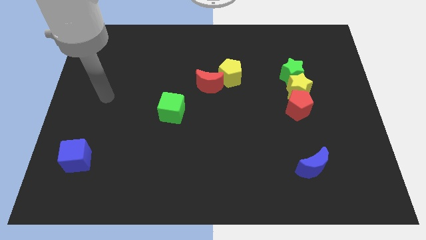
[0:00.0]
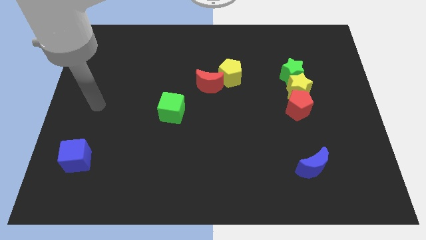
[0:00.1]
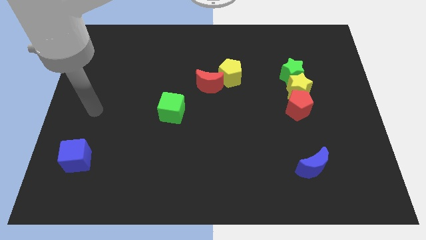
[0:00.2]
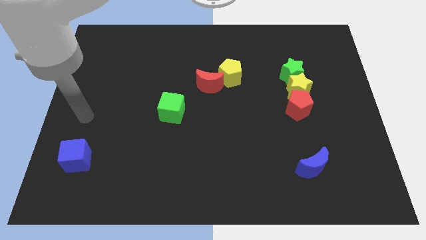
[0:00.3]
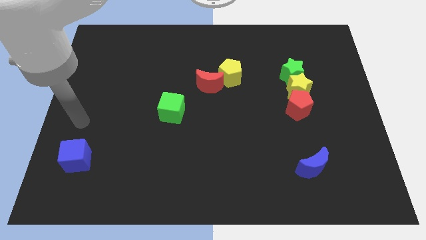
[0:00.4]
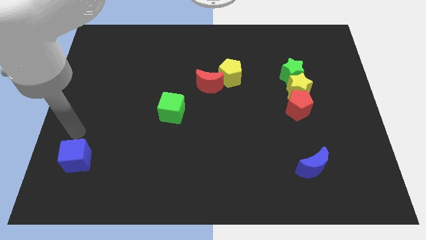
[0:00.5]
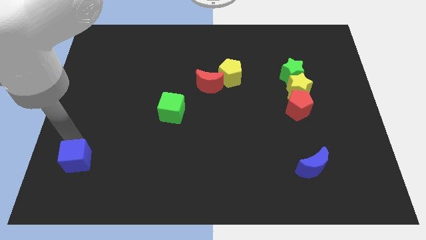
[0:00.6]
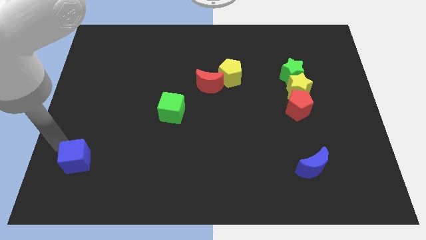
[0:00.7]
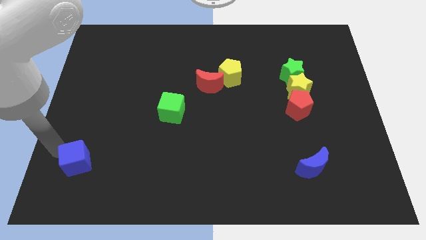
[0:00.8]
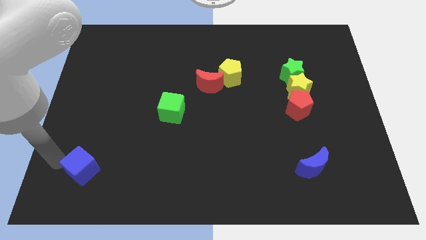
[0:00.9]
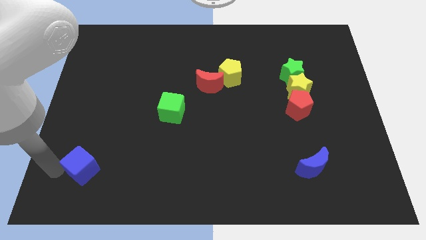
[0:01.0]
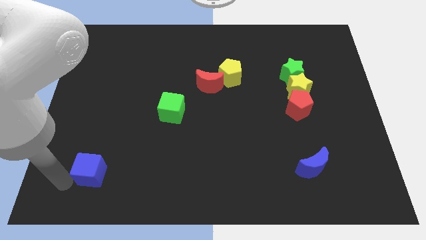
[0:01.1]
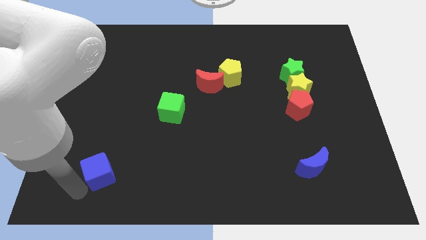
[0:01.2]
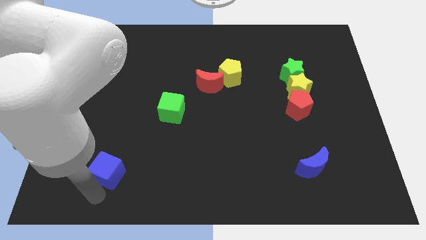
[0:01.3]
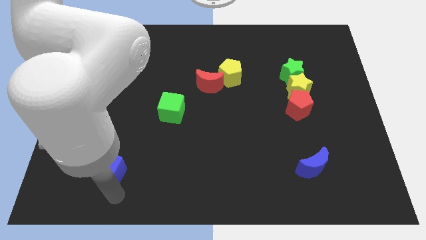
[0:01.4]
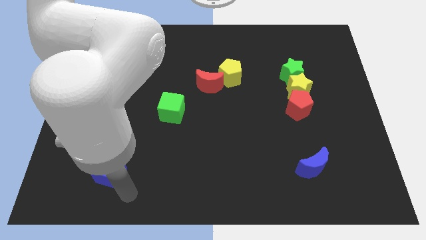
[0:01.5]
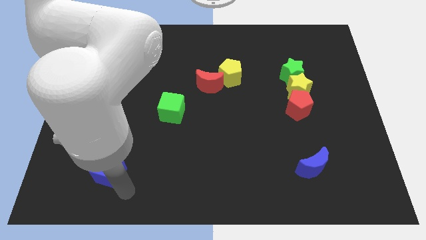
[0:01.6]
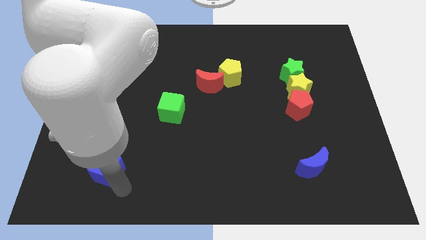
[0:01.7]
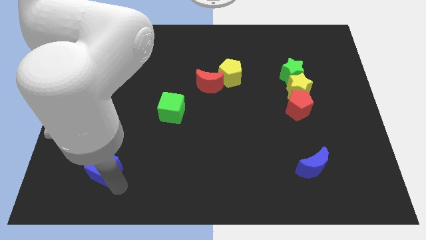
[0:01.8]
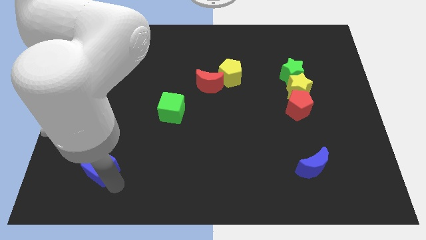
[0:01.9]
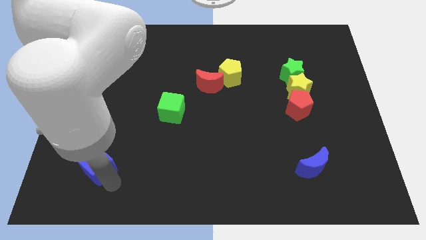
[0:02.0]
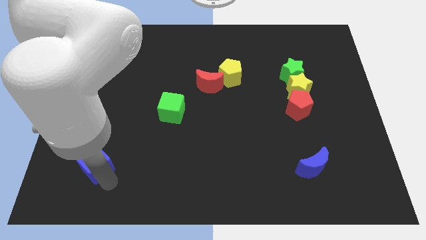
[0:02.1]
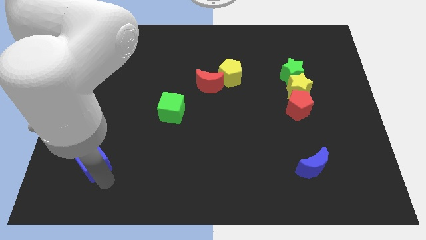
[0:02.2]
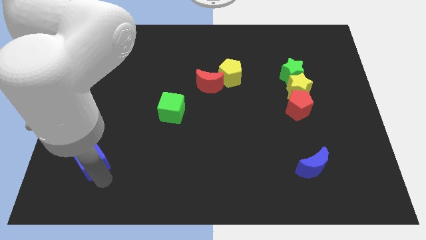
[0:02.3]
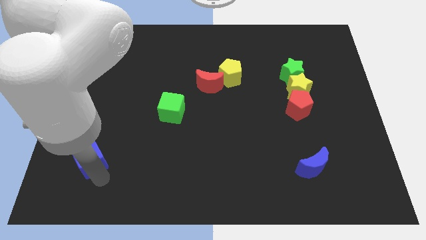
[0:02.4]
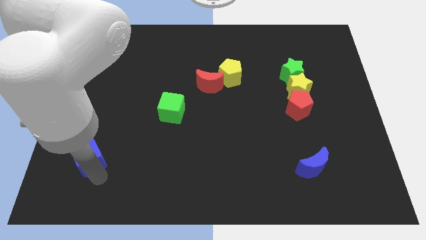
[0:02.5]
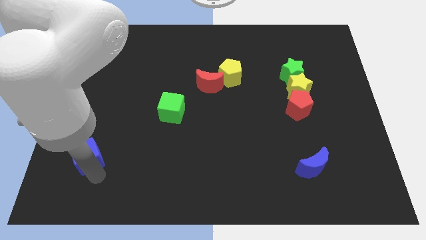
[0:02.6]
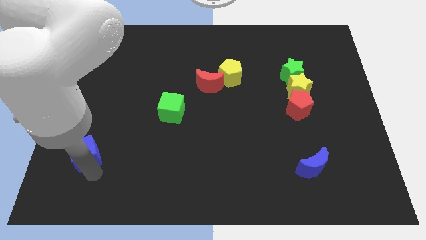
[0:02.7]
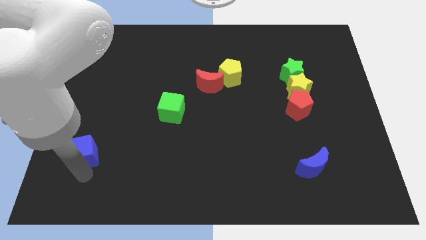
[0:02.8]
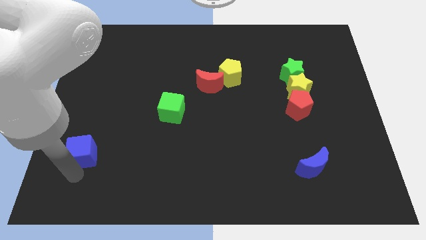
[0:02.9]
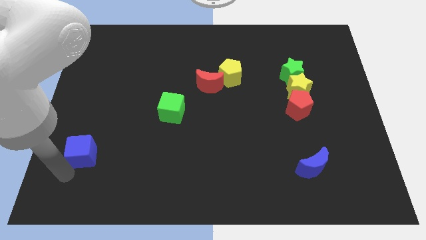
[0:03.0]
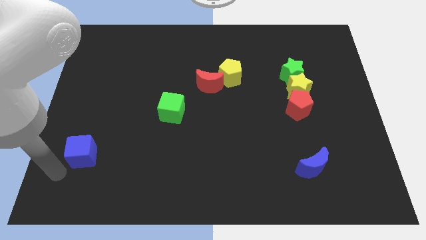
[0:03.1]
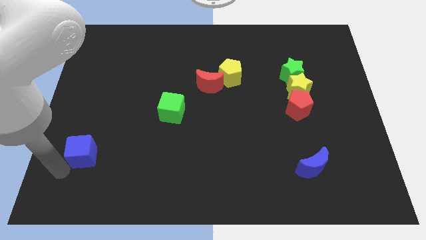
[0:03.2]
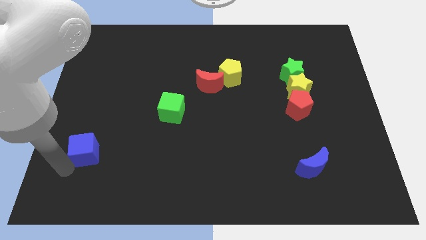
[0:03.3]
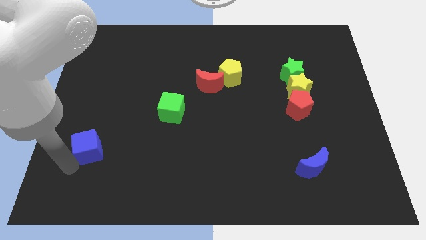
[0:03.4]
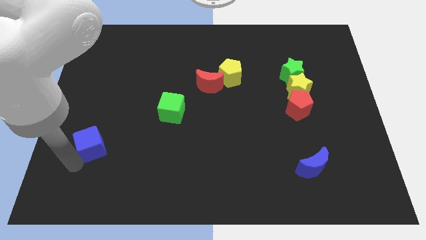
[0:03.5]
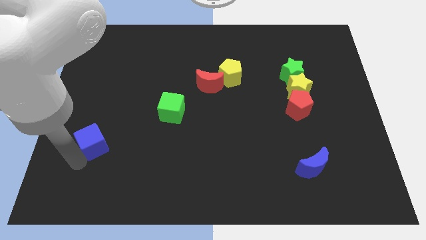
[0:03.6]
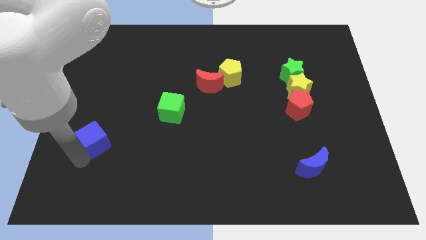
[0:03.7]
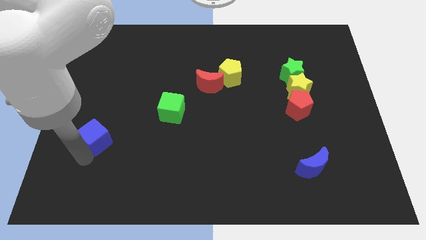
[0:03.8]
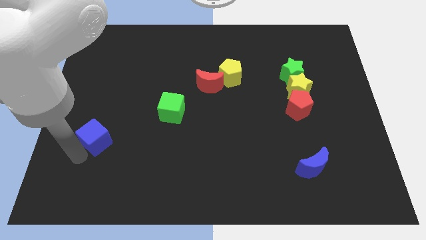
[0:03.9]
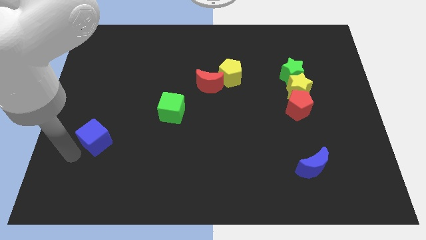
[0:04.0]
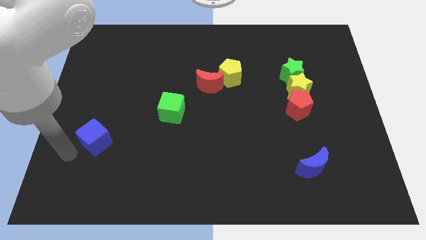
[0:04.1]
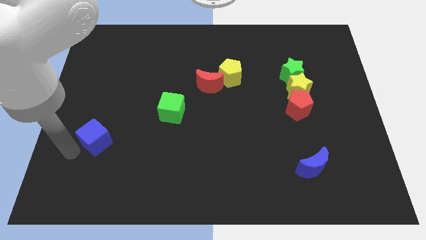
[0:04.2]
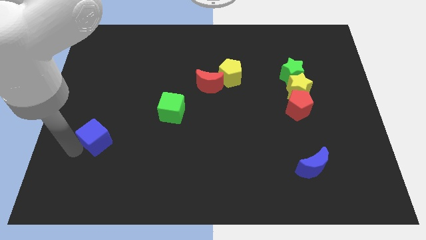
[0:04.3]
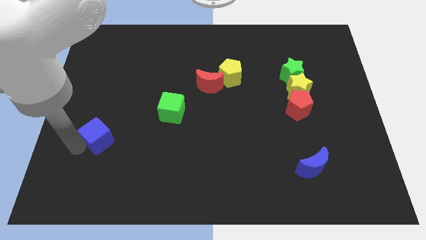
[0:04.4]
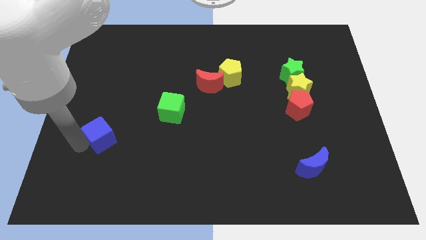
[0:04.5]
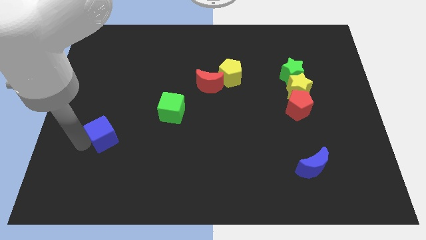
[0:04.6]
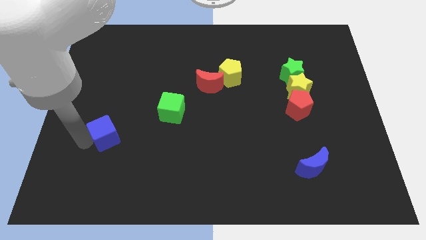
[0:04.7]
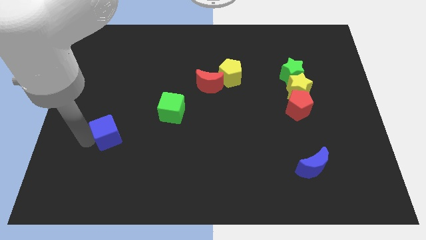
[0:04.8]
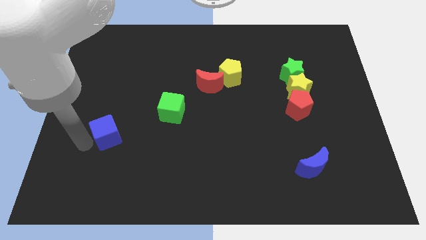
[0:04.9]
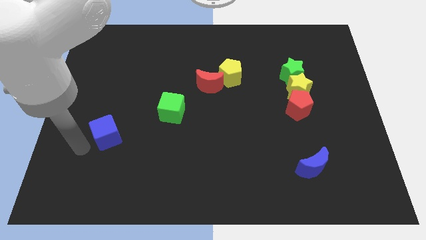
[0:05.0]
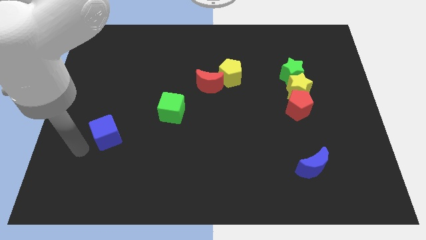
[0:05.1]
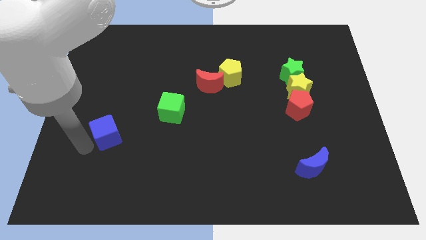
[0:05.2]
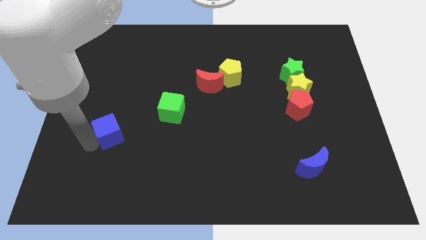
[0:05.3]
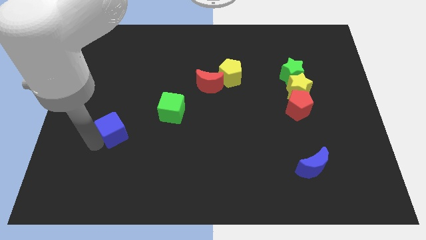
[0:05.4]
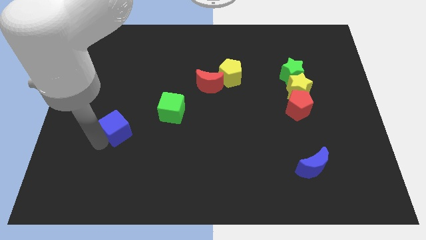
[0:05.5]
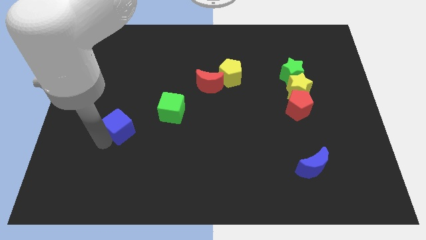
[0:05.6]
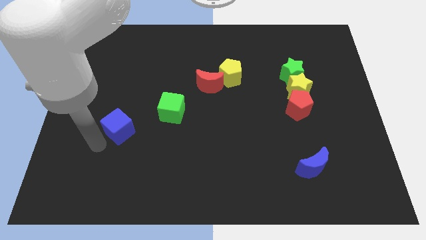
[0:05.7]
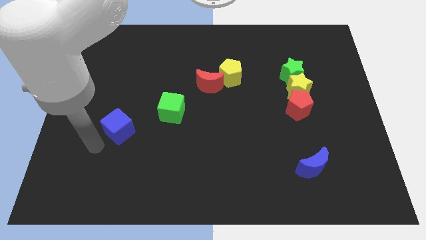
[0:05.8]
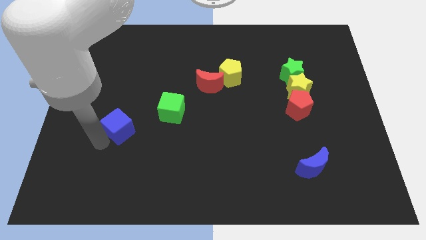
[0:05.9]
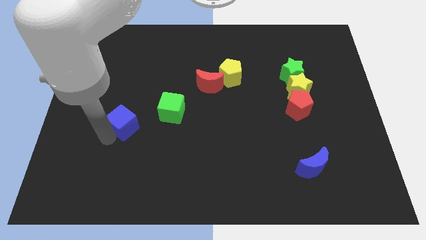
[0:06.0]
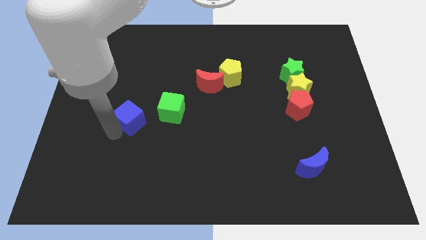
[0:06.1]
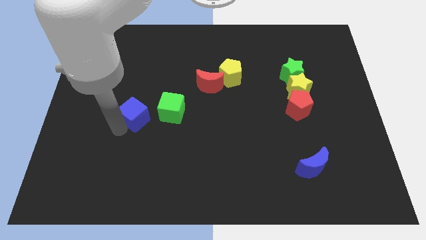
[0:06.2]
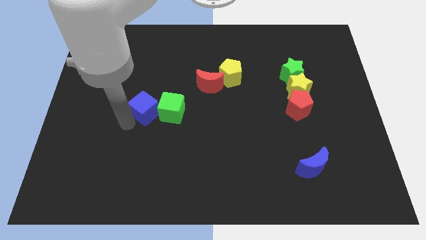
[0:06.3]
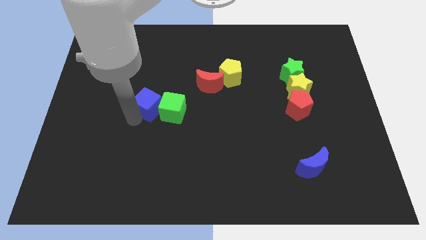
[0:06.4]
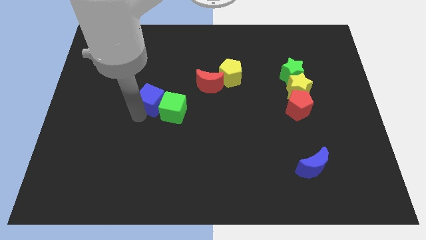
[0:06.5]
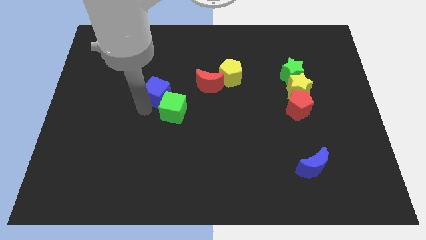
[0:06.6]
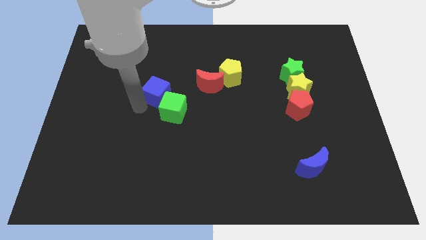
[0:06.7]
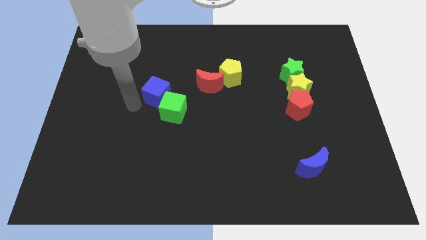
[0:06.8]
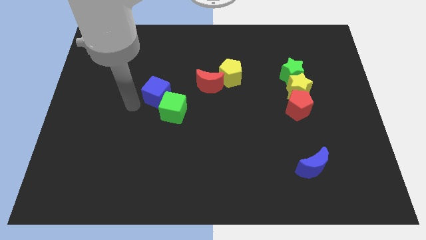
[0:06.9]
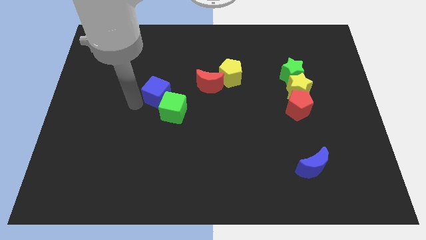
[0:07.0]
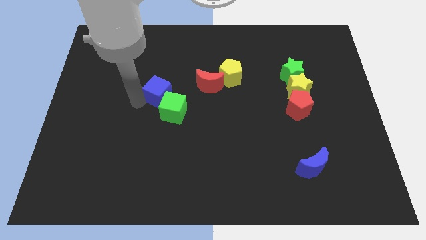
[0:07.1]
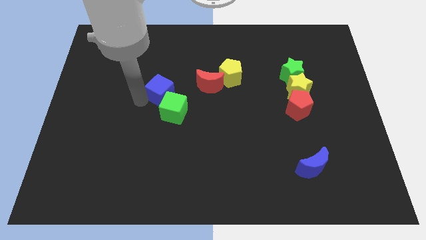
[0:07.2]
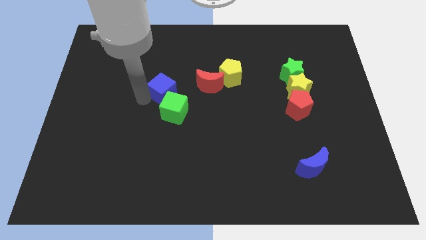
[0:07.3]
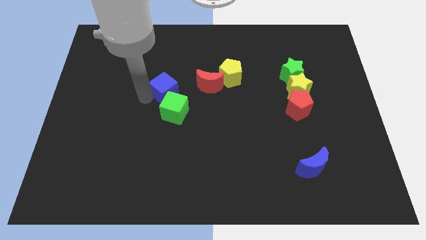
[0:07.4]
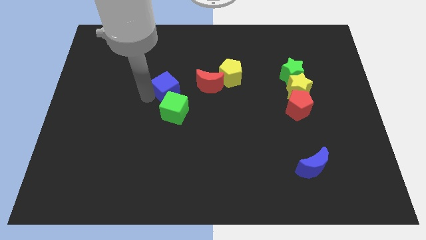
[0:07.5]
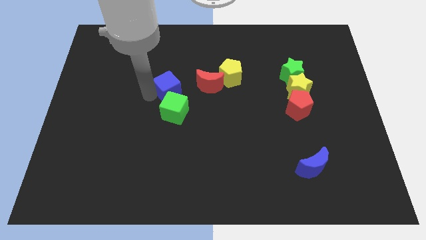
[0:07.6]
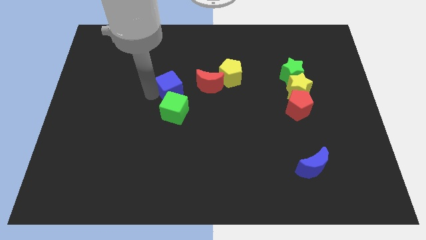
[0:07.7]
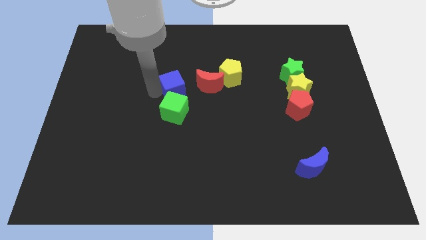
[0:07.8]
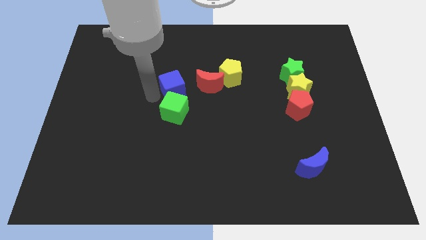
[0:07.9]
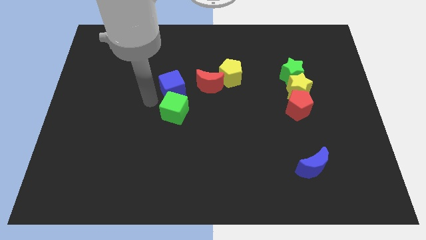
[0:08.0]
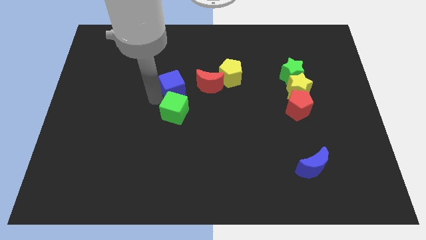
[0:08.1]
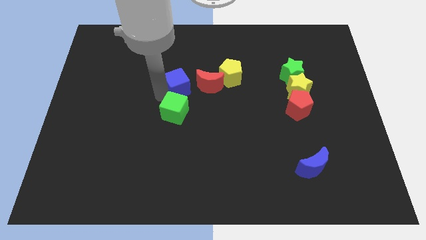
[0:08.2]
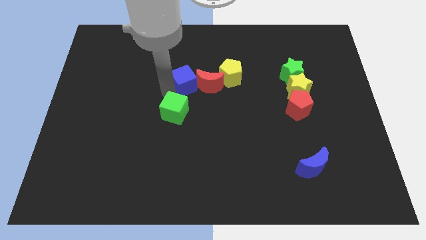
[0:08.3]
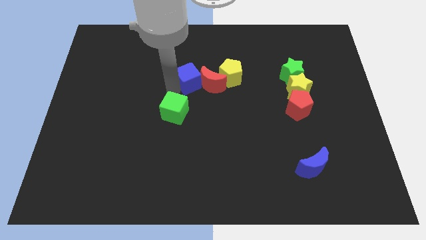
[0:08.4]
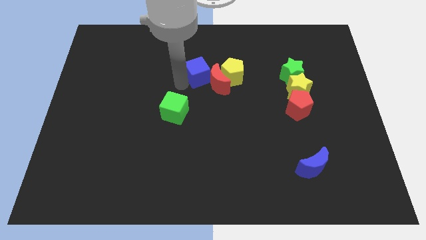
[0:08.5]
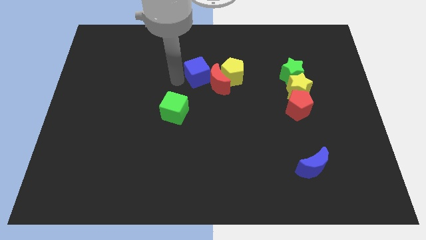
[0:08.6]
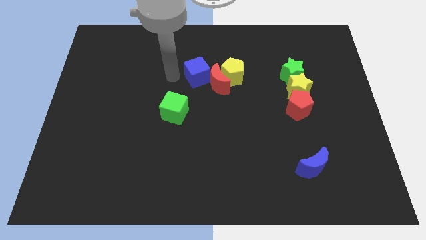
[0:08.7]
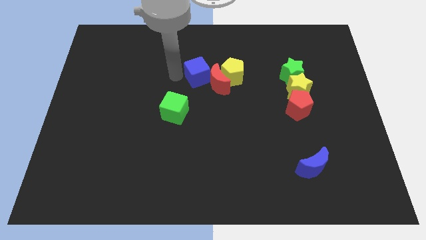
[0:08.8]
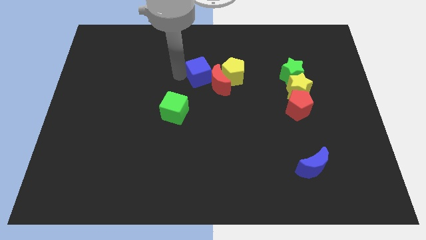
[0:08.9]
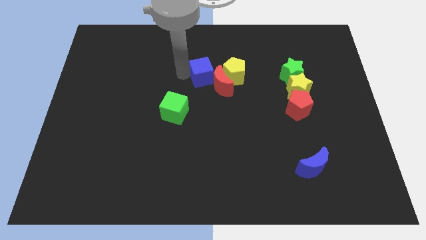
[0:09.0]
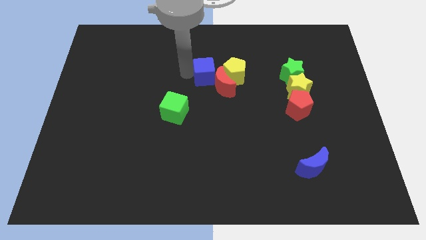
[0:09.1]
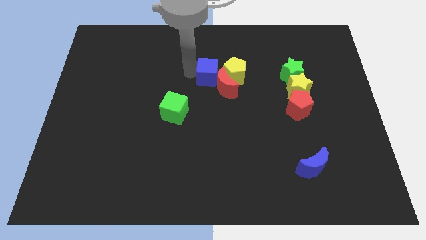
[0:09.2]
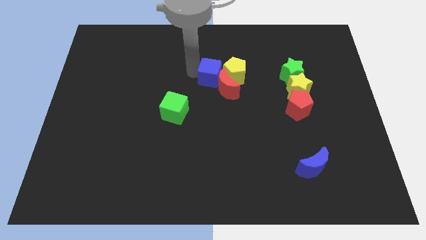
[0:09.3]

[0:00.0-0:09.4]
slide the blue cube next to the yellow pentagon
